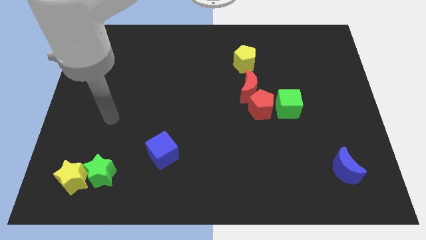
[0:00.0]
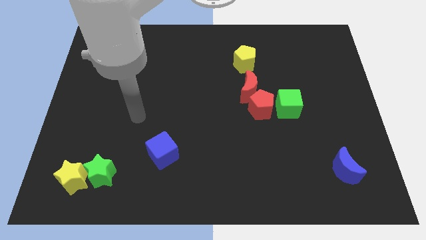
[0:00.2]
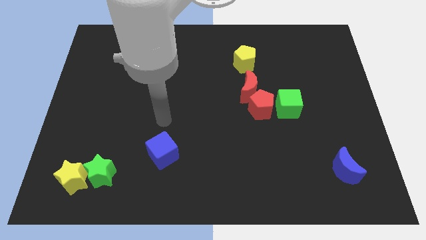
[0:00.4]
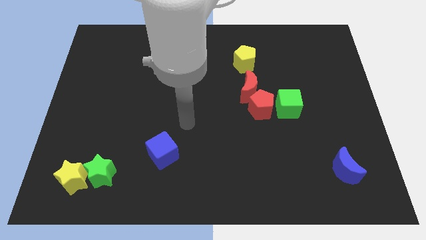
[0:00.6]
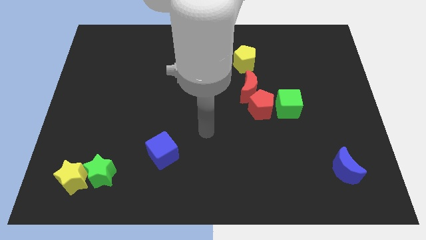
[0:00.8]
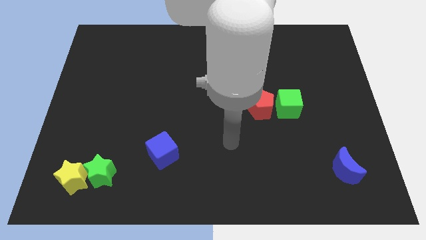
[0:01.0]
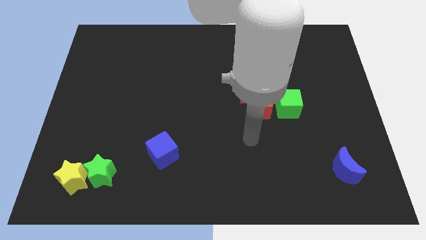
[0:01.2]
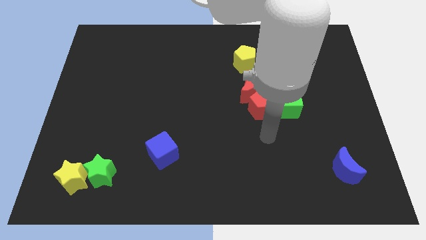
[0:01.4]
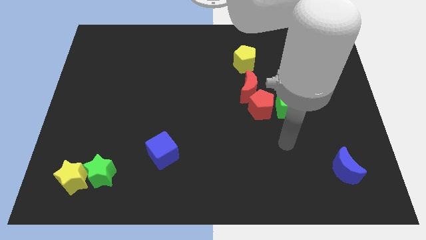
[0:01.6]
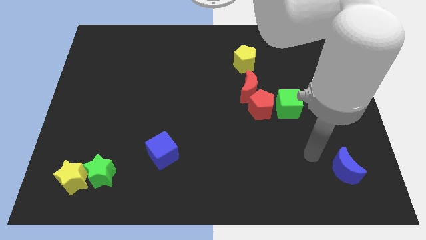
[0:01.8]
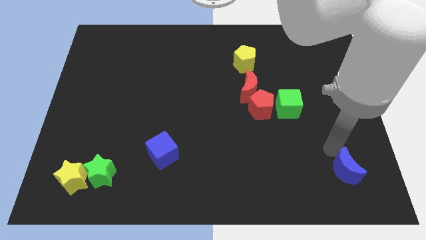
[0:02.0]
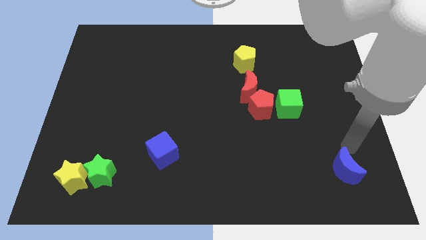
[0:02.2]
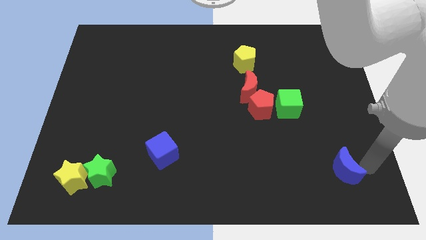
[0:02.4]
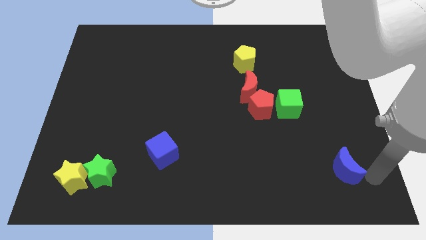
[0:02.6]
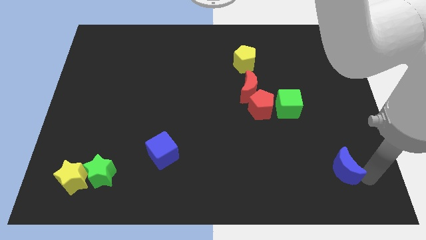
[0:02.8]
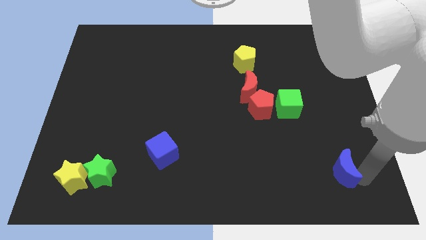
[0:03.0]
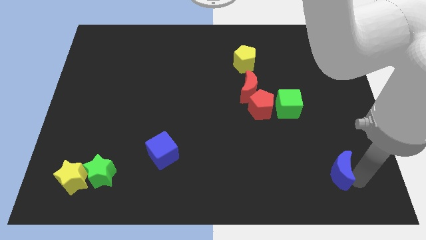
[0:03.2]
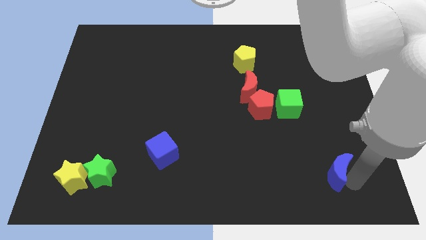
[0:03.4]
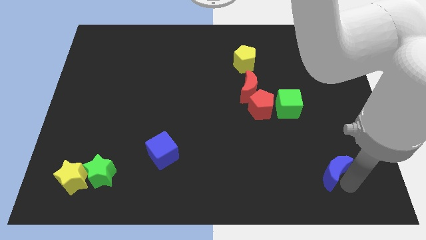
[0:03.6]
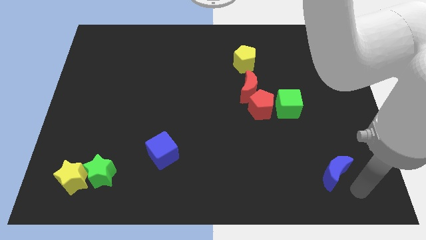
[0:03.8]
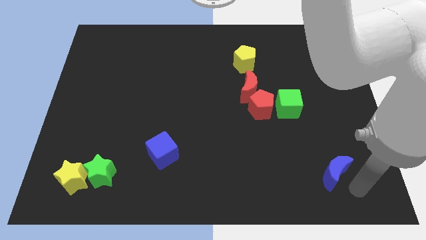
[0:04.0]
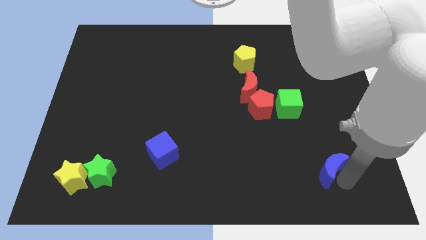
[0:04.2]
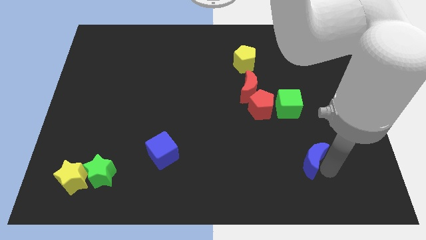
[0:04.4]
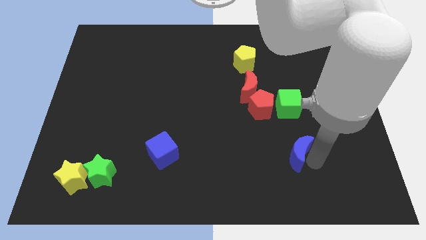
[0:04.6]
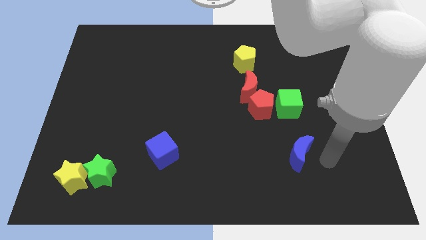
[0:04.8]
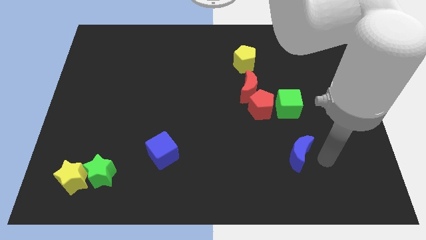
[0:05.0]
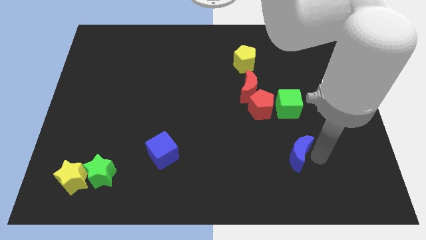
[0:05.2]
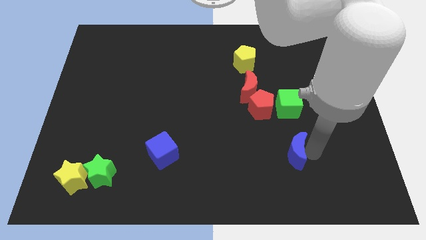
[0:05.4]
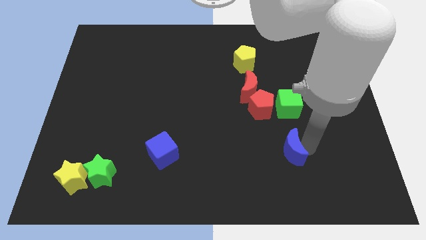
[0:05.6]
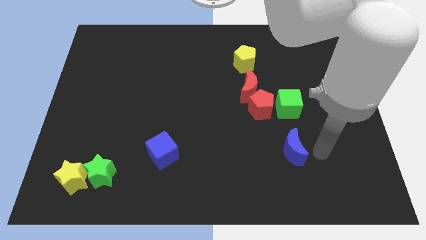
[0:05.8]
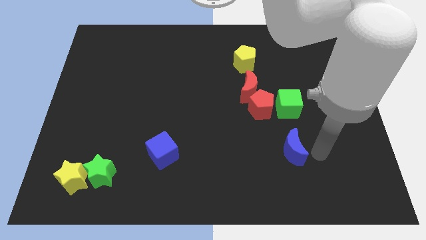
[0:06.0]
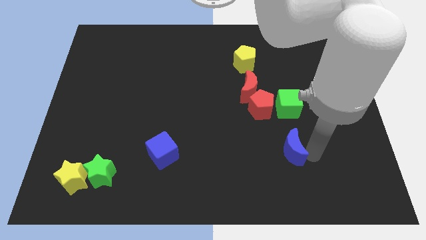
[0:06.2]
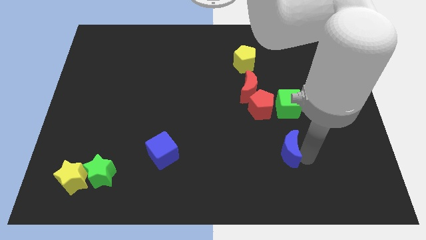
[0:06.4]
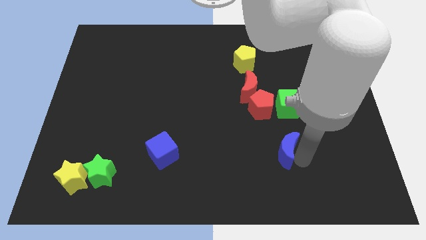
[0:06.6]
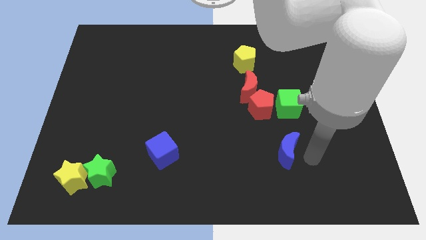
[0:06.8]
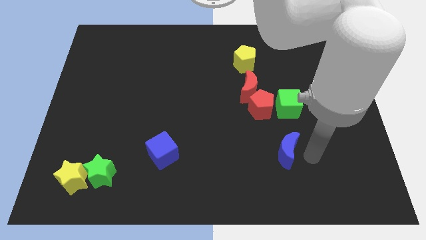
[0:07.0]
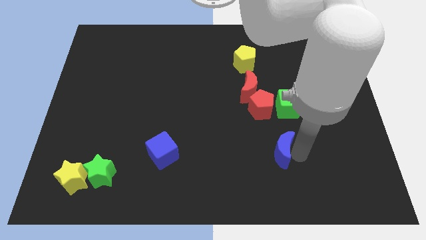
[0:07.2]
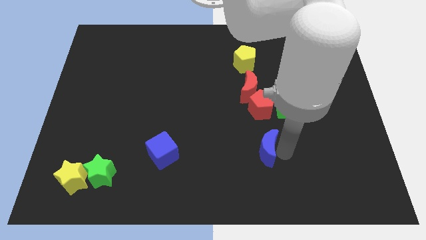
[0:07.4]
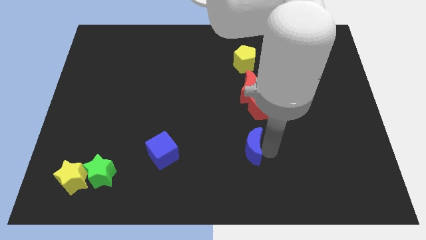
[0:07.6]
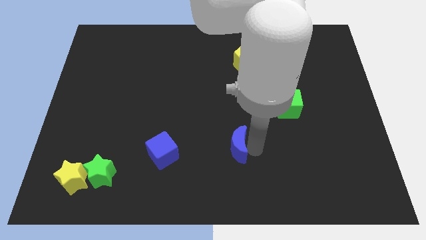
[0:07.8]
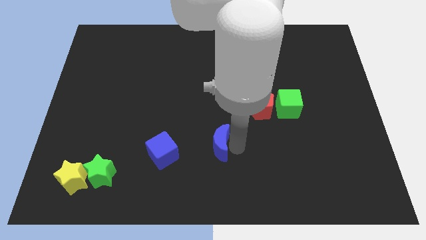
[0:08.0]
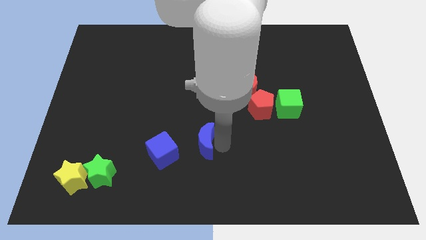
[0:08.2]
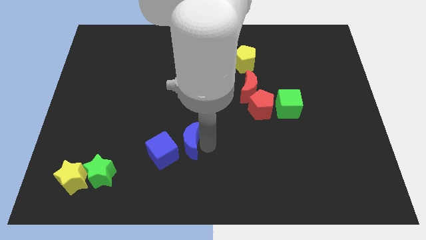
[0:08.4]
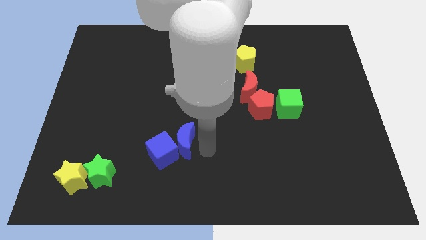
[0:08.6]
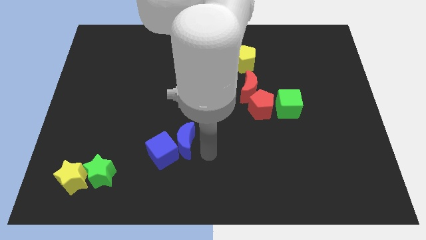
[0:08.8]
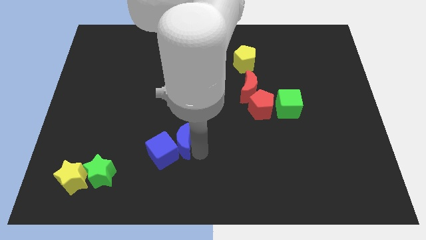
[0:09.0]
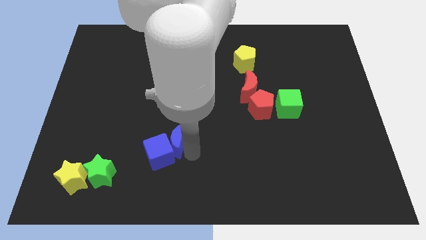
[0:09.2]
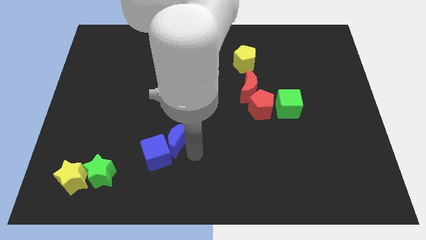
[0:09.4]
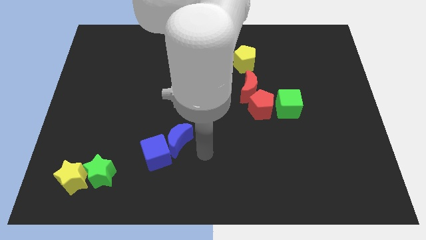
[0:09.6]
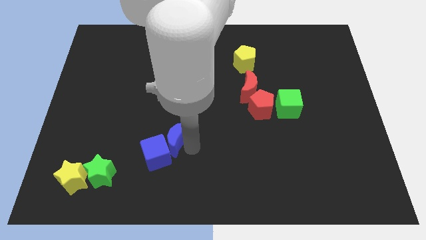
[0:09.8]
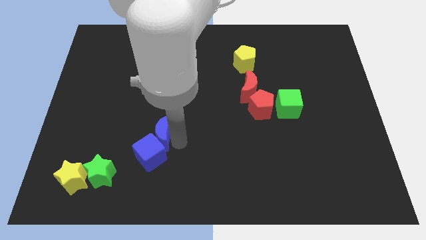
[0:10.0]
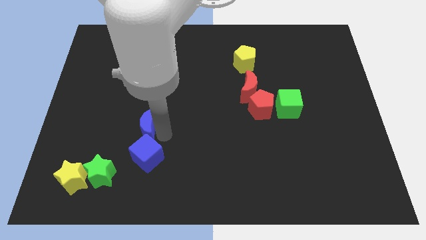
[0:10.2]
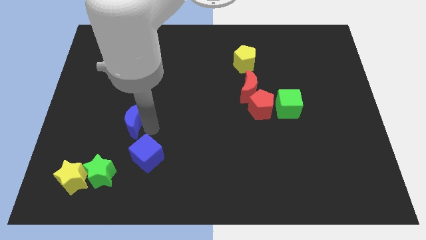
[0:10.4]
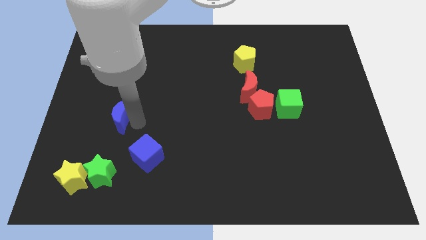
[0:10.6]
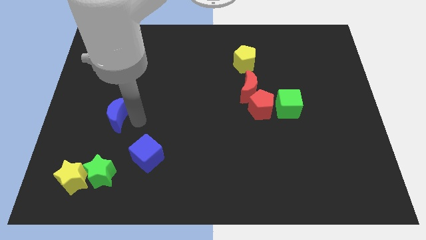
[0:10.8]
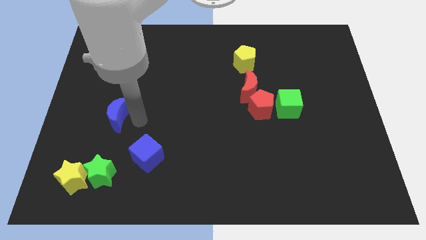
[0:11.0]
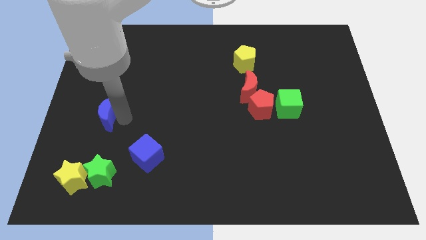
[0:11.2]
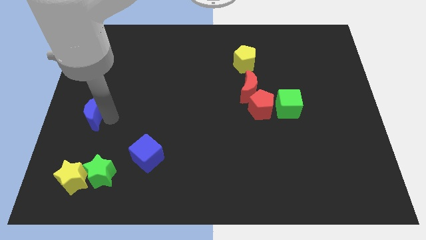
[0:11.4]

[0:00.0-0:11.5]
move the blue moon to the center left
